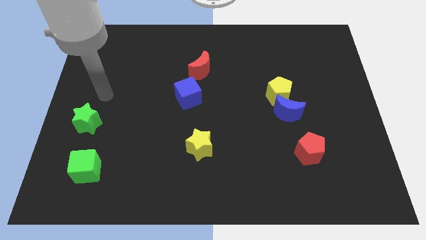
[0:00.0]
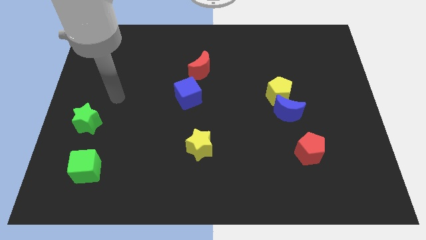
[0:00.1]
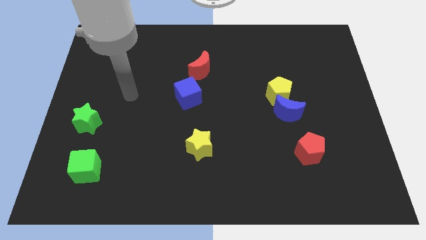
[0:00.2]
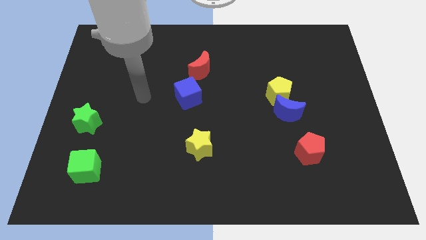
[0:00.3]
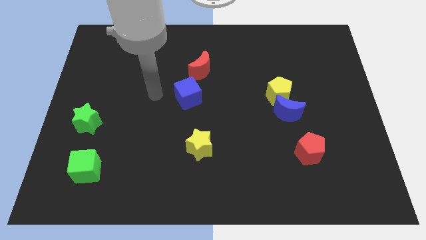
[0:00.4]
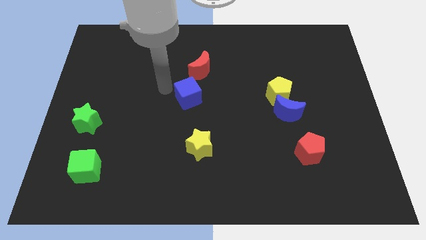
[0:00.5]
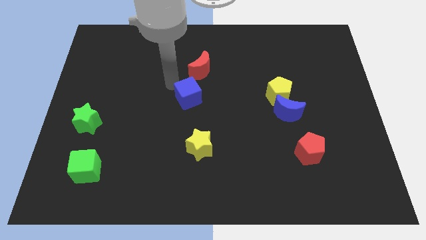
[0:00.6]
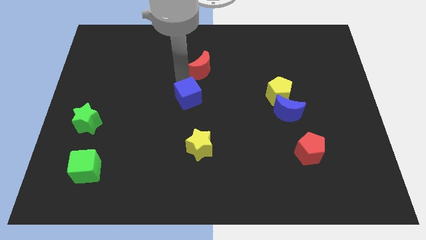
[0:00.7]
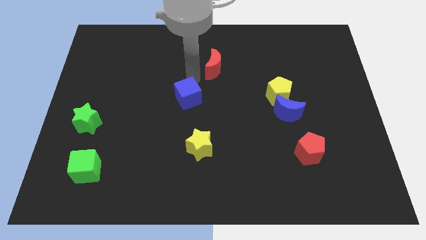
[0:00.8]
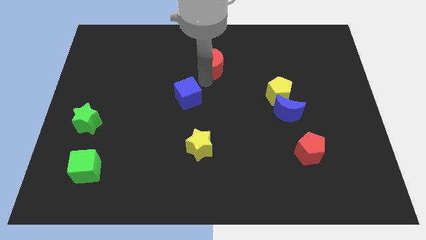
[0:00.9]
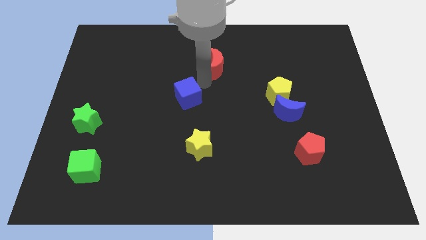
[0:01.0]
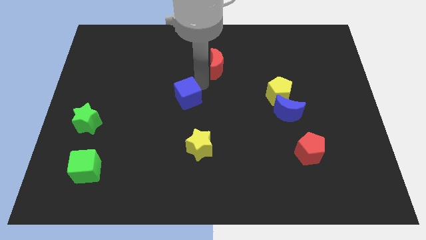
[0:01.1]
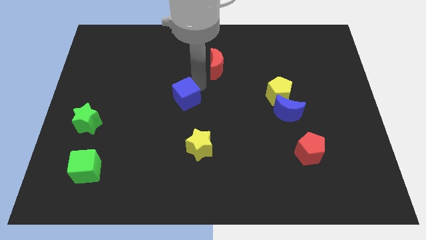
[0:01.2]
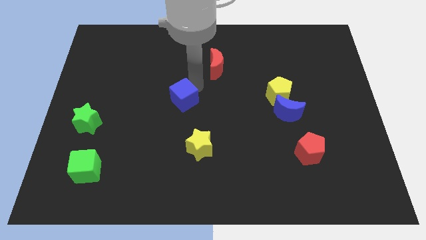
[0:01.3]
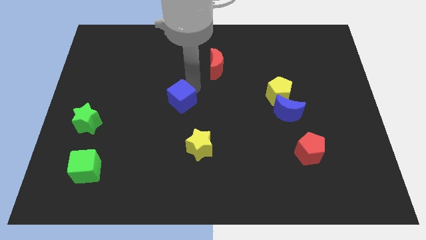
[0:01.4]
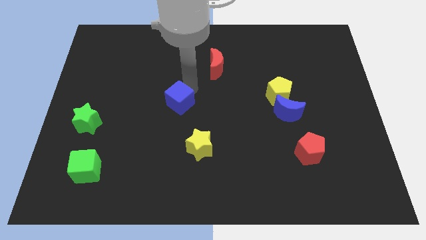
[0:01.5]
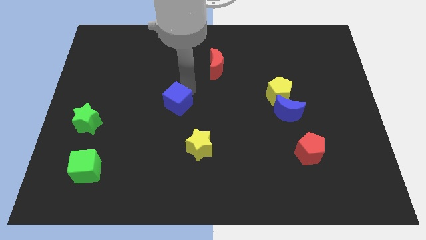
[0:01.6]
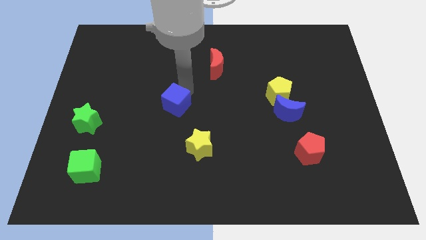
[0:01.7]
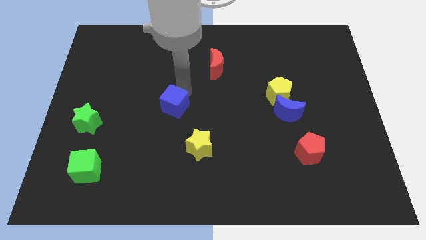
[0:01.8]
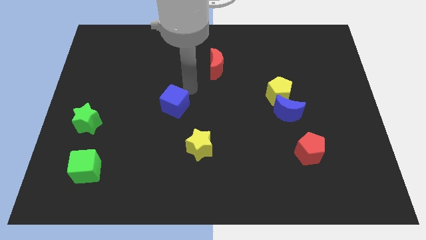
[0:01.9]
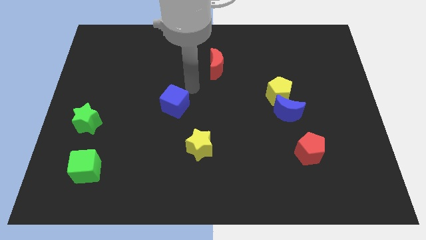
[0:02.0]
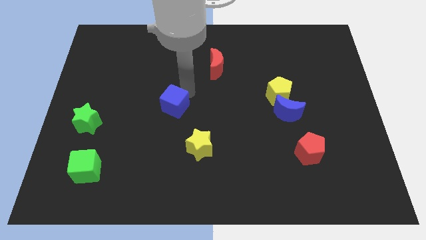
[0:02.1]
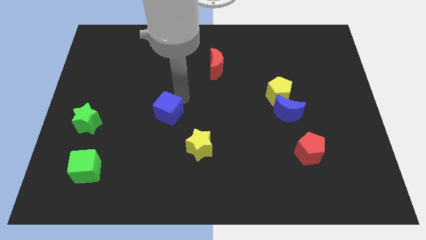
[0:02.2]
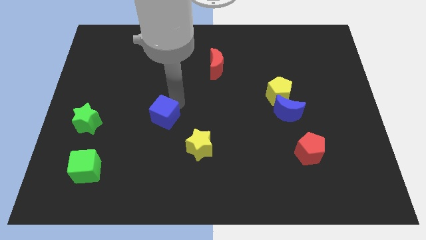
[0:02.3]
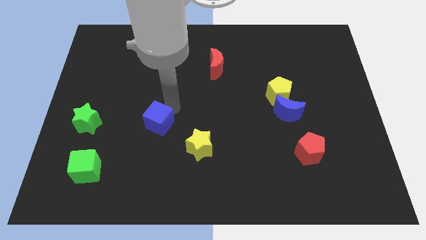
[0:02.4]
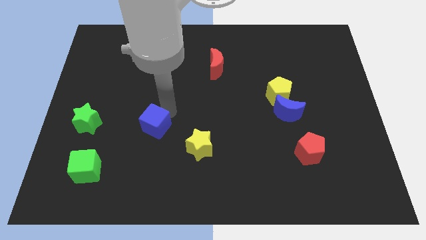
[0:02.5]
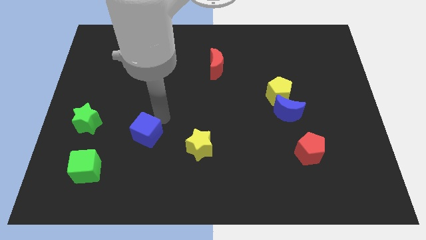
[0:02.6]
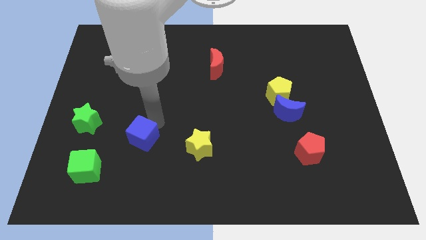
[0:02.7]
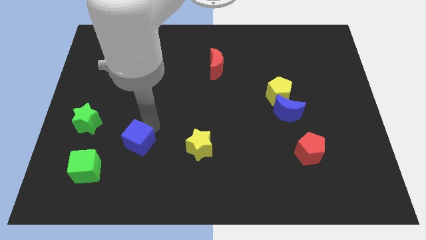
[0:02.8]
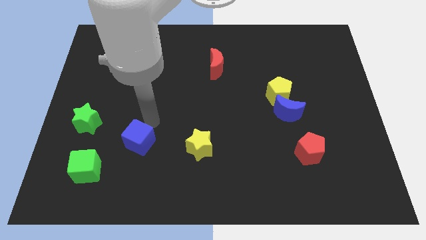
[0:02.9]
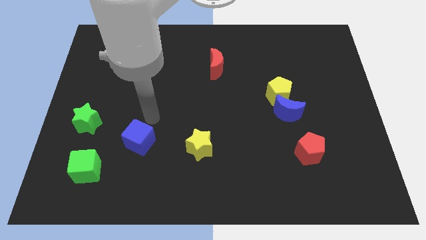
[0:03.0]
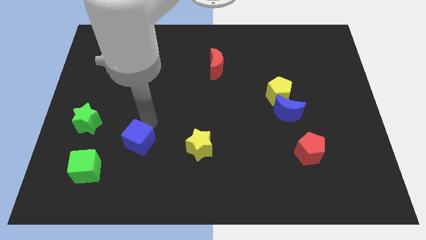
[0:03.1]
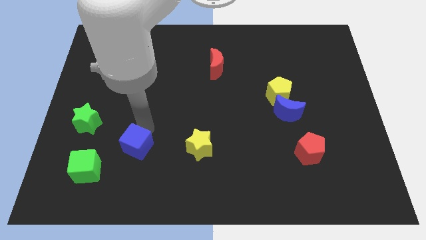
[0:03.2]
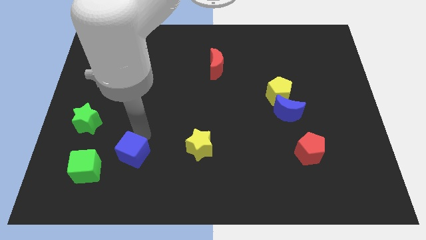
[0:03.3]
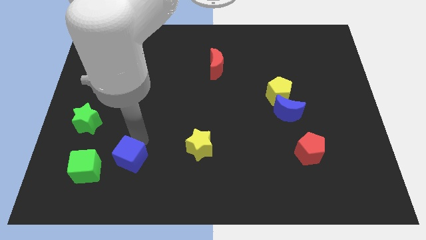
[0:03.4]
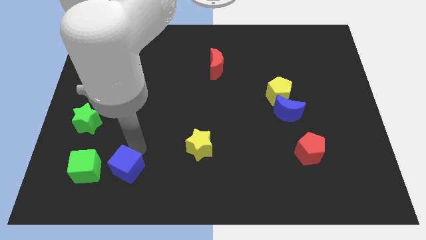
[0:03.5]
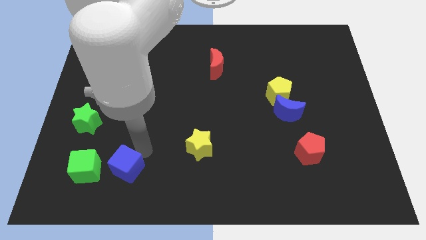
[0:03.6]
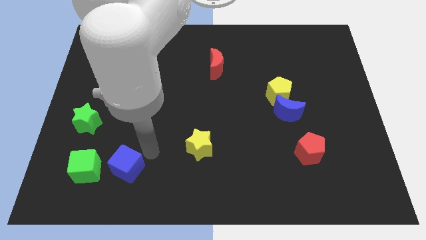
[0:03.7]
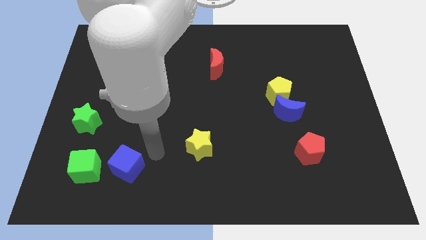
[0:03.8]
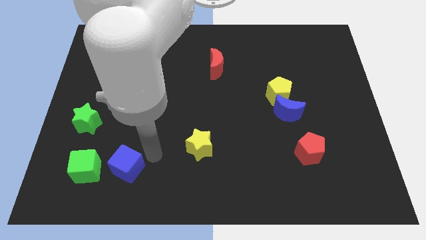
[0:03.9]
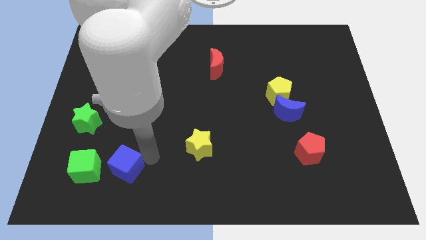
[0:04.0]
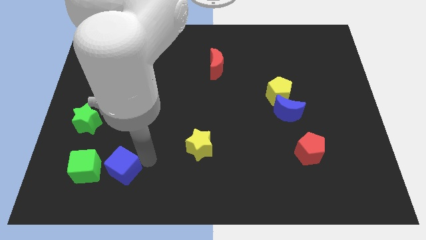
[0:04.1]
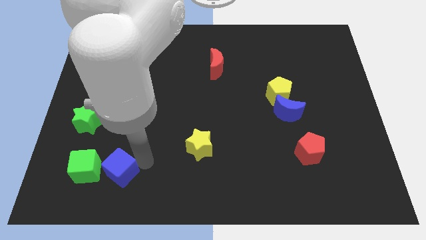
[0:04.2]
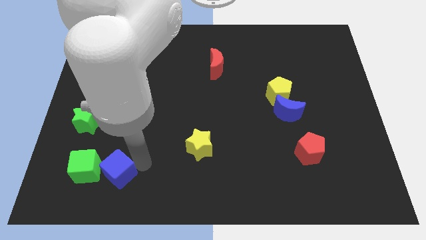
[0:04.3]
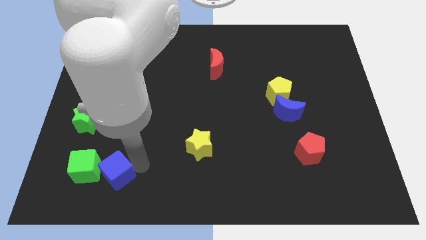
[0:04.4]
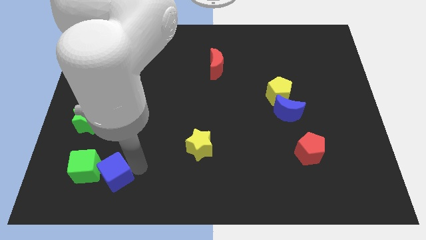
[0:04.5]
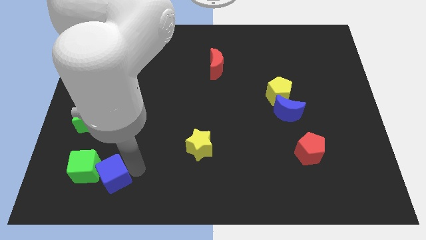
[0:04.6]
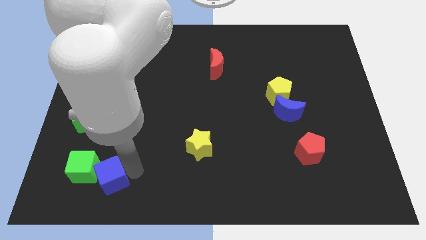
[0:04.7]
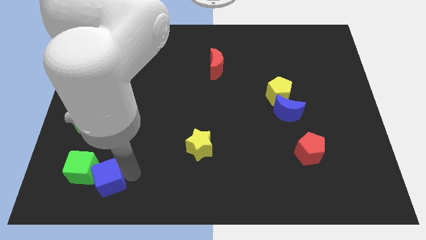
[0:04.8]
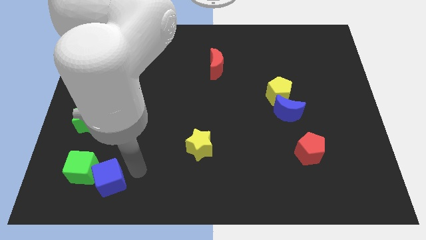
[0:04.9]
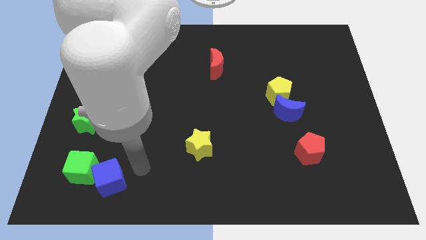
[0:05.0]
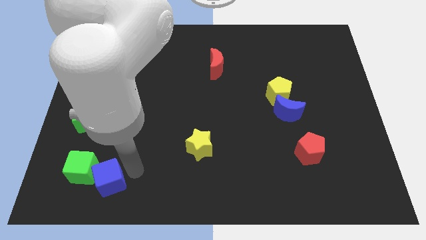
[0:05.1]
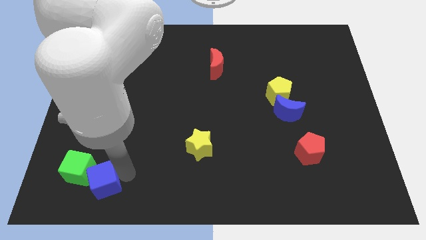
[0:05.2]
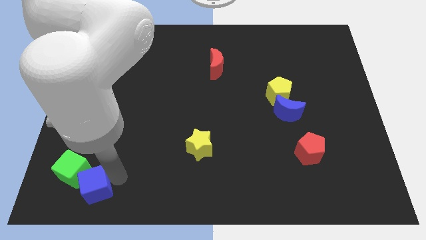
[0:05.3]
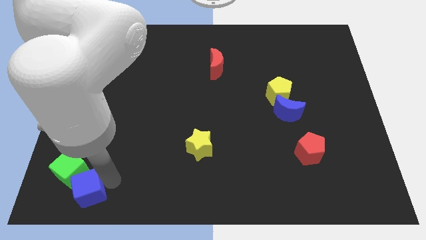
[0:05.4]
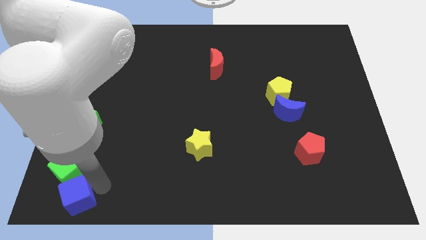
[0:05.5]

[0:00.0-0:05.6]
move the blue cube to the lower left corner
